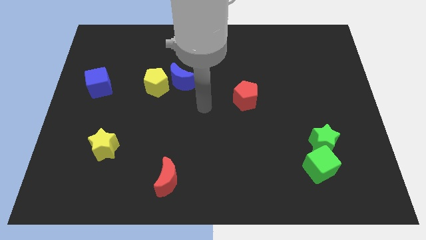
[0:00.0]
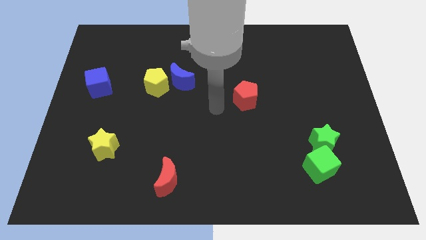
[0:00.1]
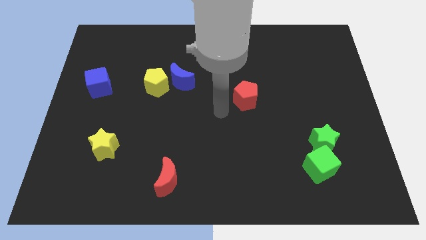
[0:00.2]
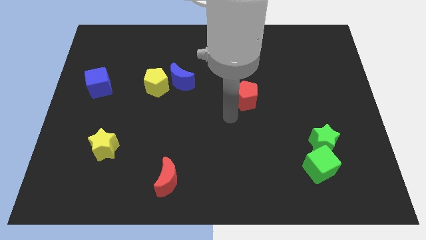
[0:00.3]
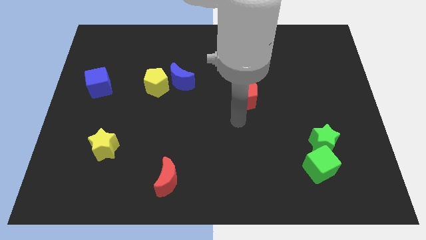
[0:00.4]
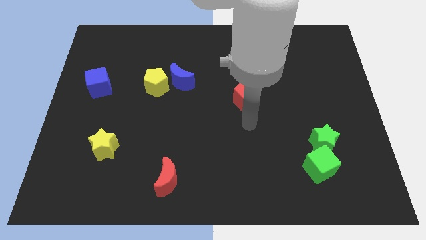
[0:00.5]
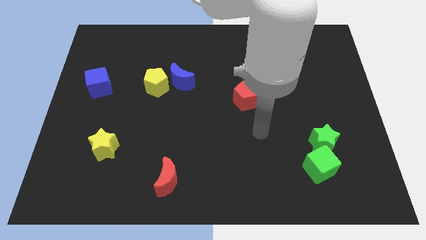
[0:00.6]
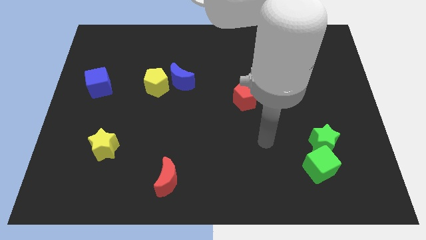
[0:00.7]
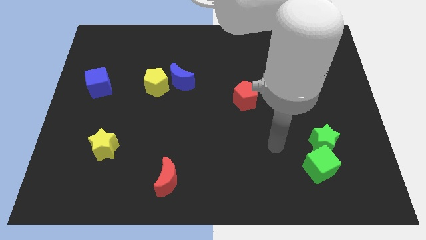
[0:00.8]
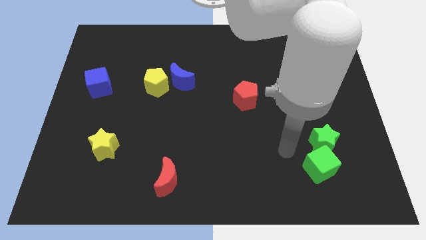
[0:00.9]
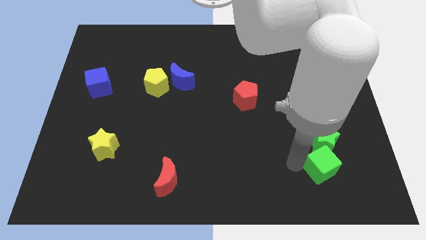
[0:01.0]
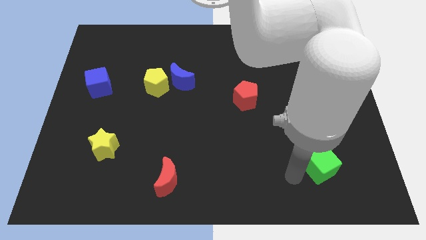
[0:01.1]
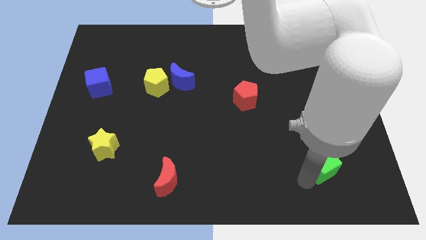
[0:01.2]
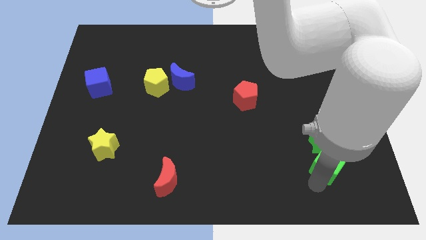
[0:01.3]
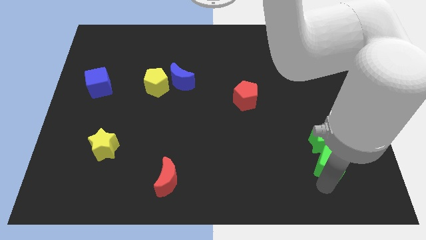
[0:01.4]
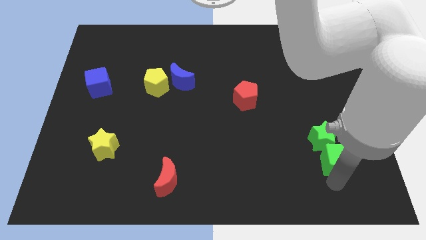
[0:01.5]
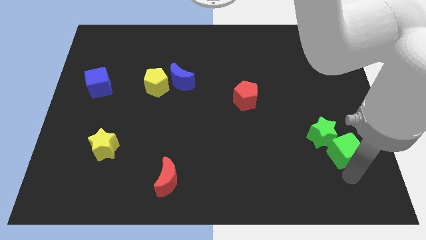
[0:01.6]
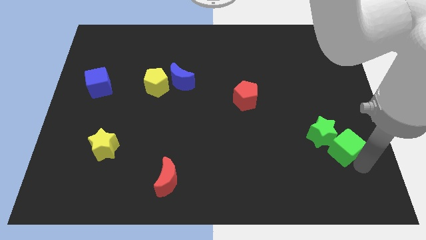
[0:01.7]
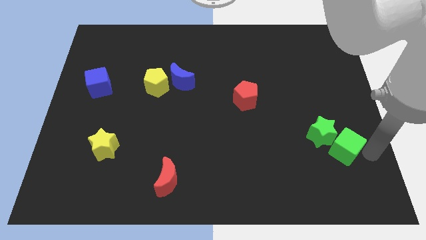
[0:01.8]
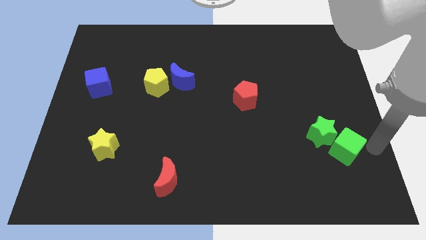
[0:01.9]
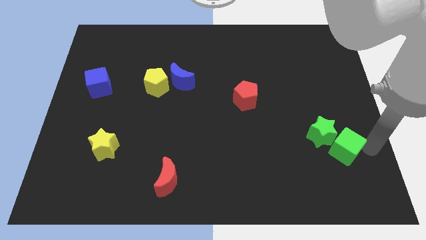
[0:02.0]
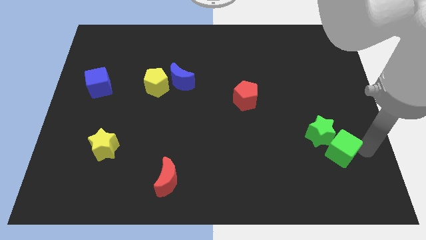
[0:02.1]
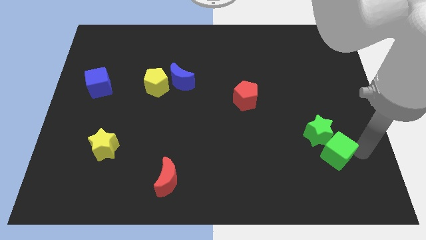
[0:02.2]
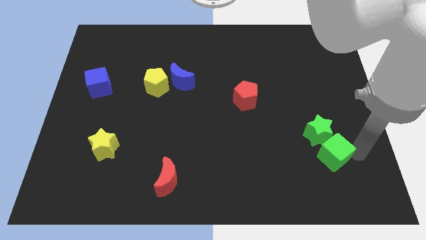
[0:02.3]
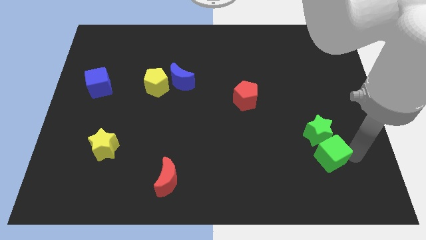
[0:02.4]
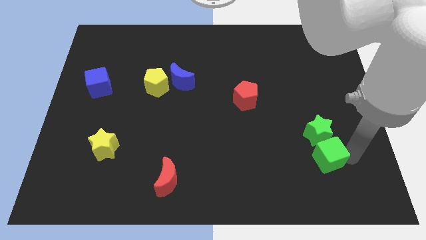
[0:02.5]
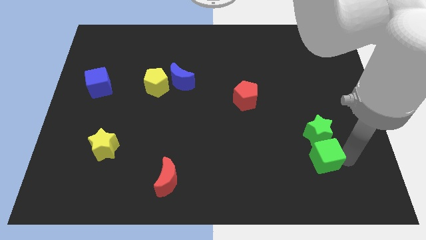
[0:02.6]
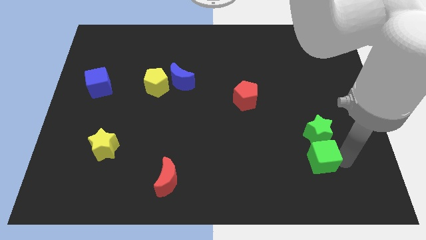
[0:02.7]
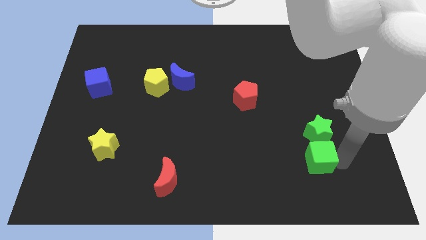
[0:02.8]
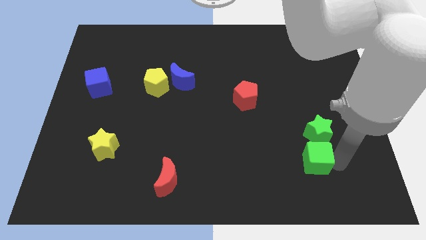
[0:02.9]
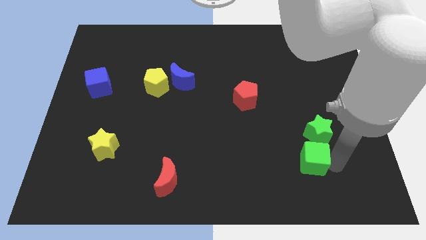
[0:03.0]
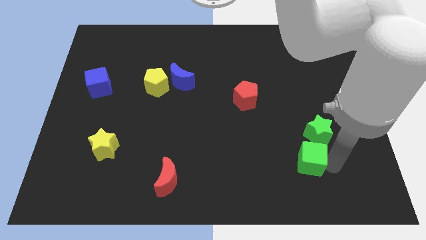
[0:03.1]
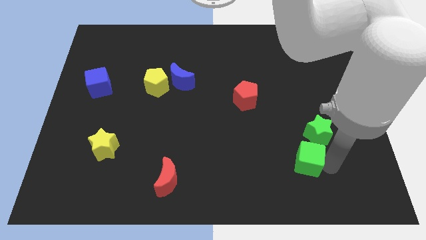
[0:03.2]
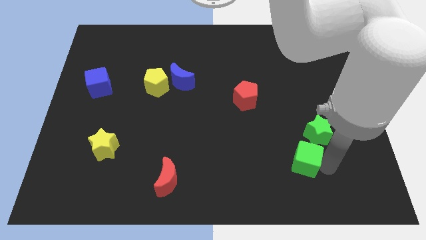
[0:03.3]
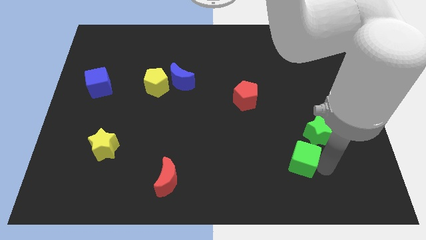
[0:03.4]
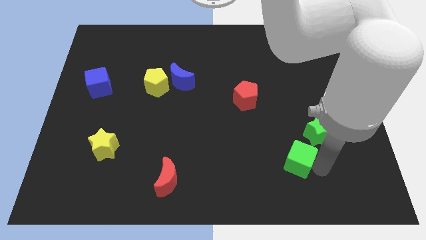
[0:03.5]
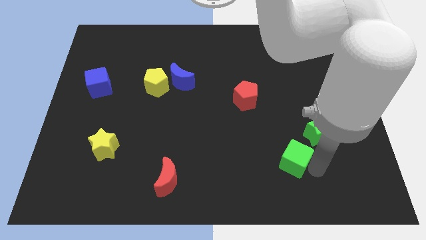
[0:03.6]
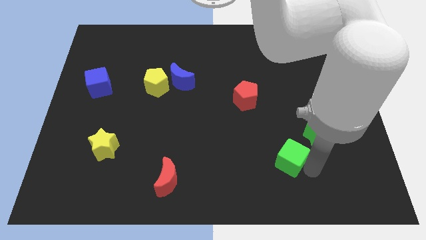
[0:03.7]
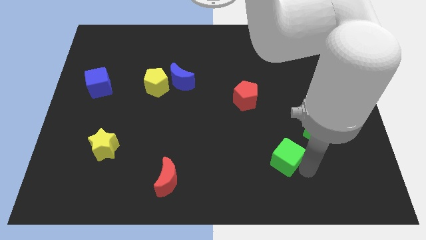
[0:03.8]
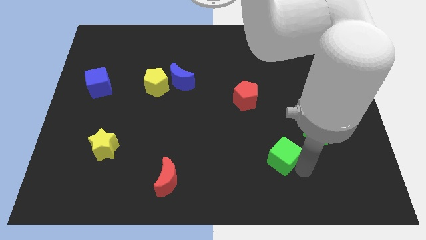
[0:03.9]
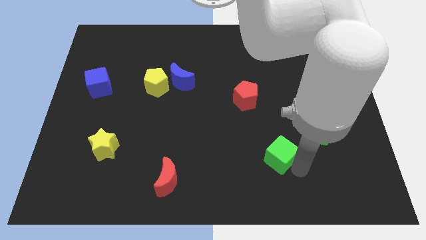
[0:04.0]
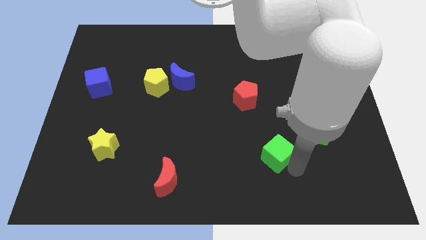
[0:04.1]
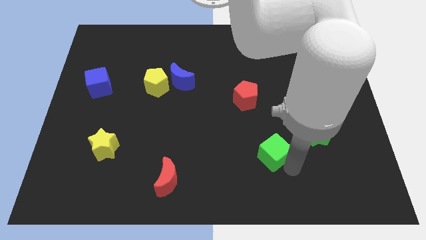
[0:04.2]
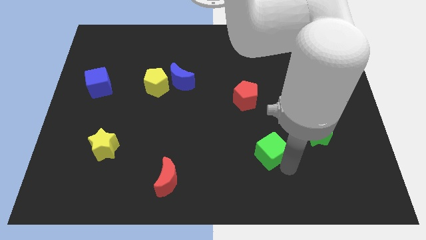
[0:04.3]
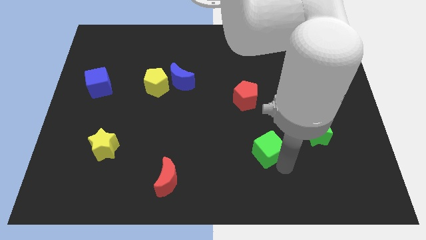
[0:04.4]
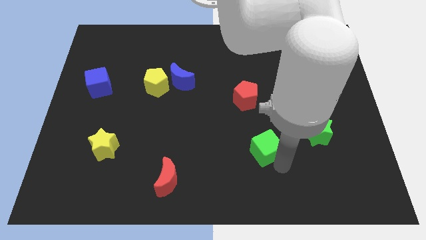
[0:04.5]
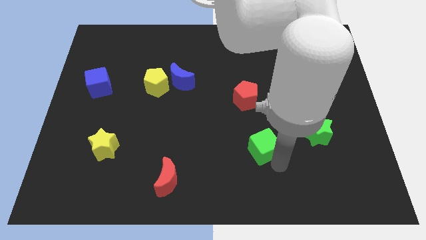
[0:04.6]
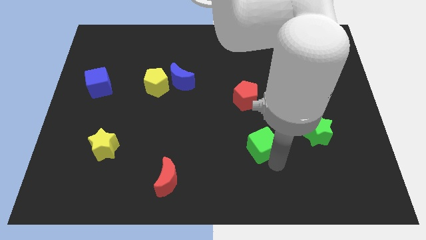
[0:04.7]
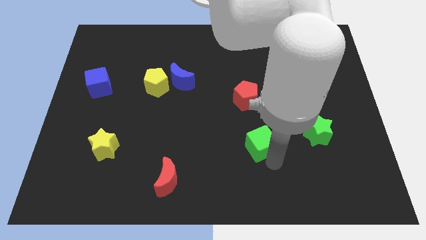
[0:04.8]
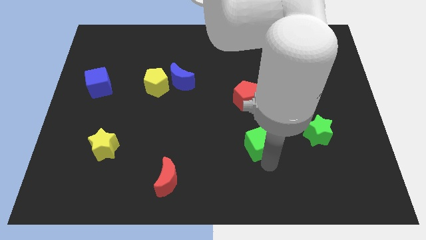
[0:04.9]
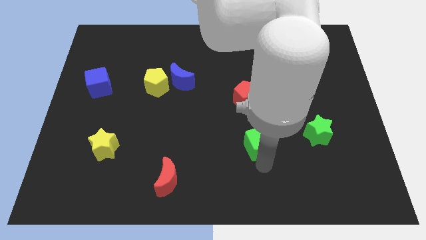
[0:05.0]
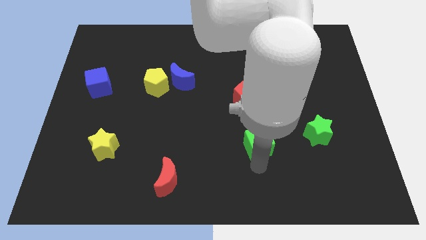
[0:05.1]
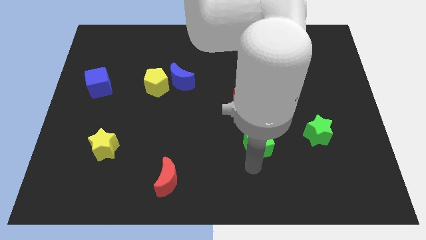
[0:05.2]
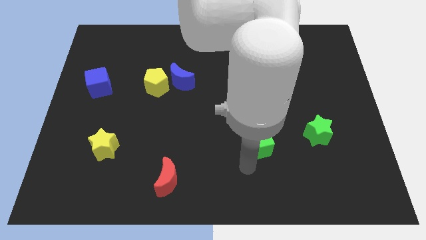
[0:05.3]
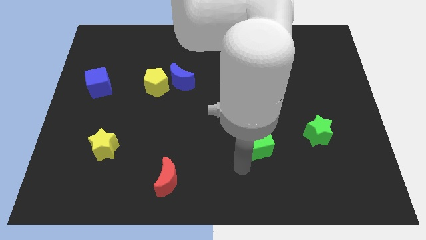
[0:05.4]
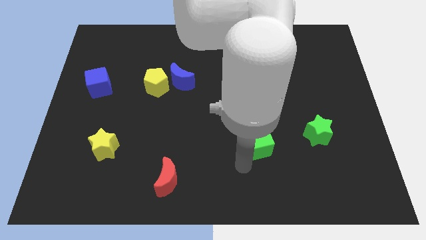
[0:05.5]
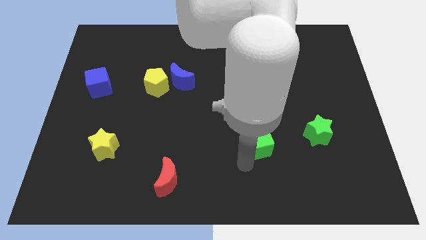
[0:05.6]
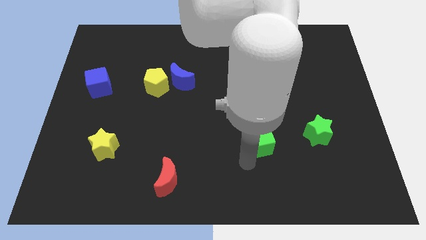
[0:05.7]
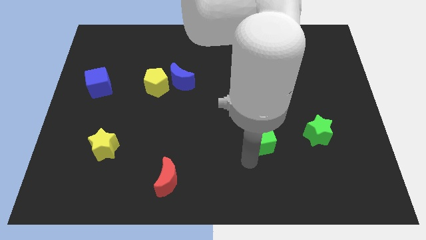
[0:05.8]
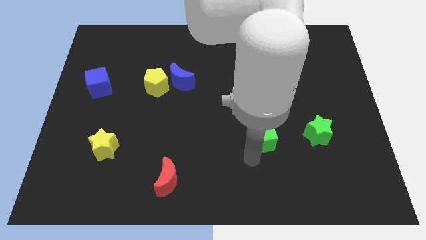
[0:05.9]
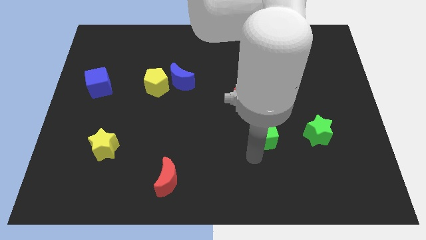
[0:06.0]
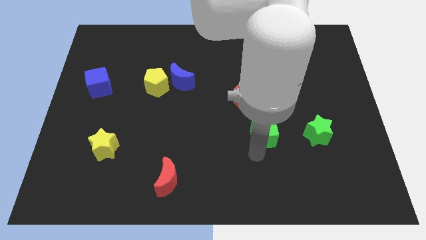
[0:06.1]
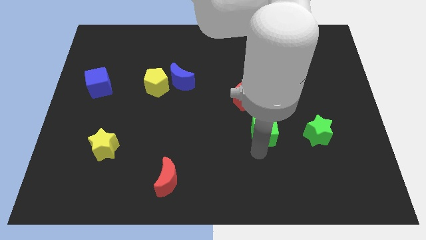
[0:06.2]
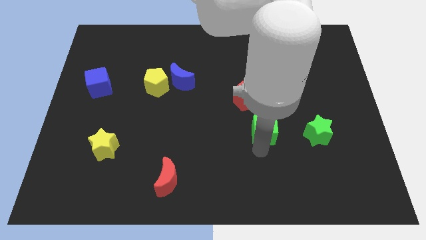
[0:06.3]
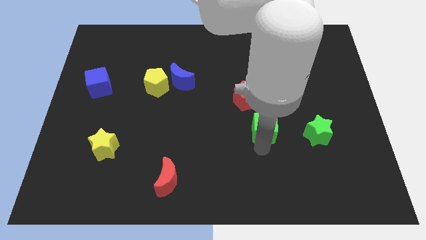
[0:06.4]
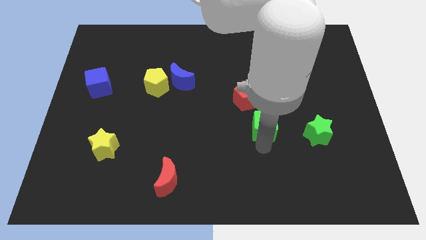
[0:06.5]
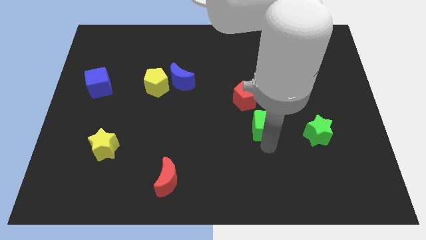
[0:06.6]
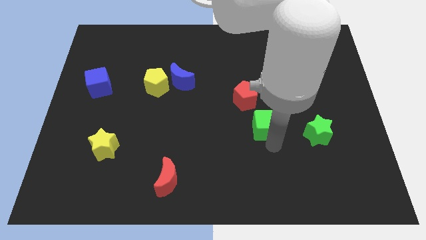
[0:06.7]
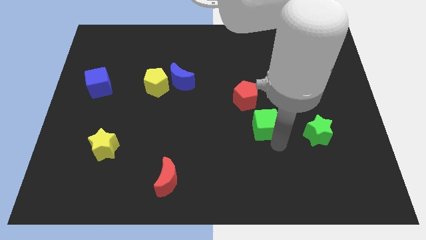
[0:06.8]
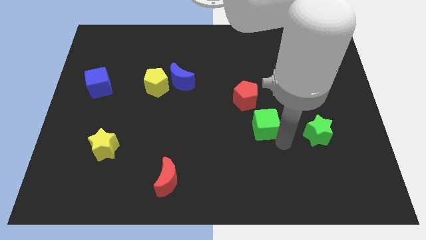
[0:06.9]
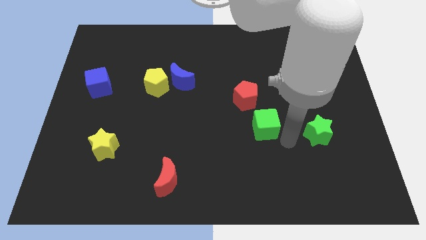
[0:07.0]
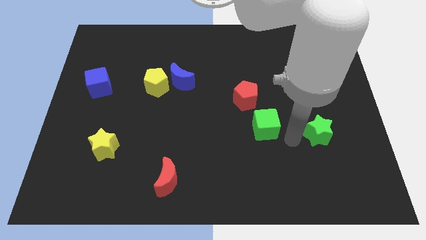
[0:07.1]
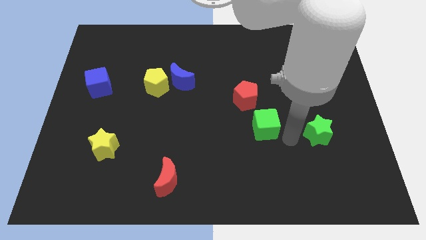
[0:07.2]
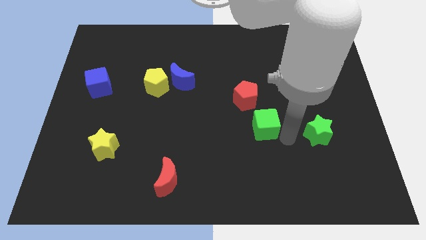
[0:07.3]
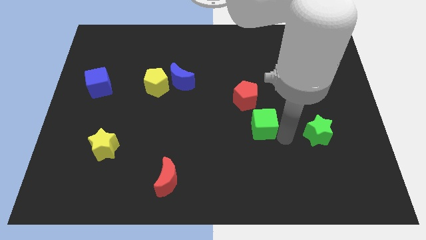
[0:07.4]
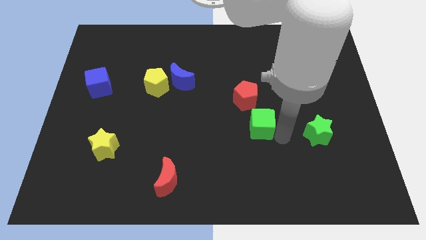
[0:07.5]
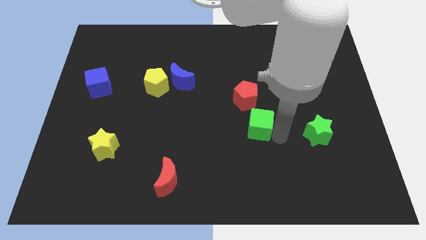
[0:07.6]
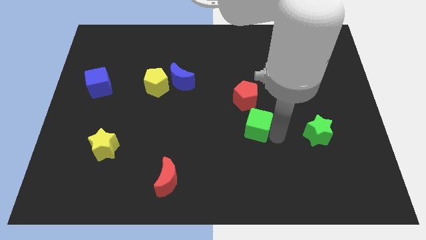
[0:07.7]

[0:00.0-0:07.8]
move the green cube to the center
